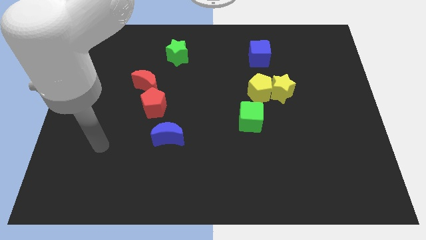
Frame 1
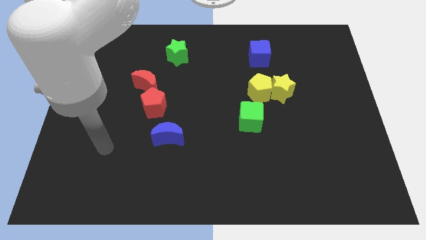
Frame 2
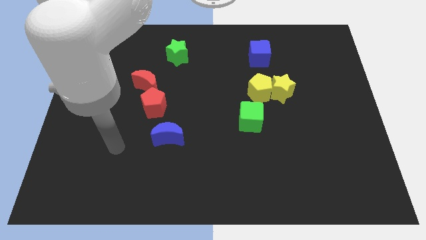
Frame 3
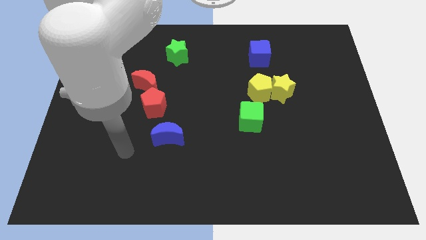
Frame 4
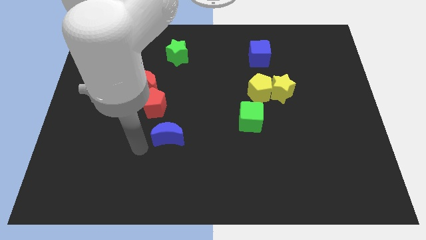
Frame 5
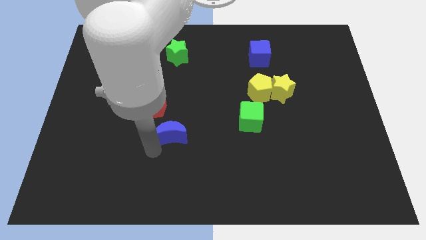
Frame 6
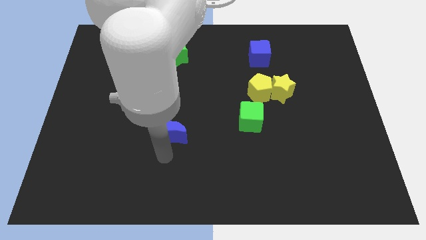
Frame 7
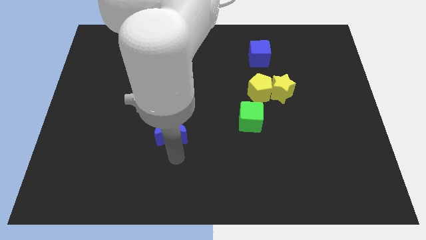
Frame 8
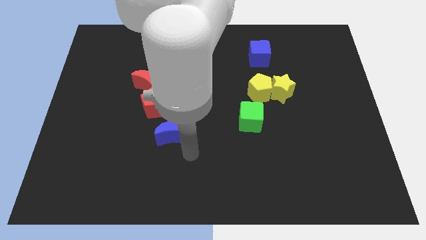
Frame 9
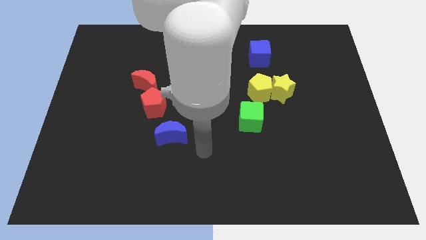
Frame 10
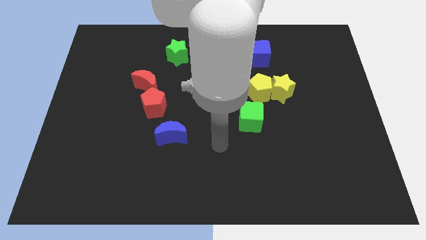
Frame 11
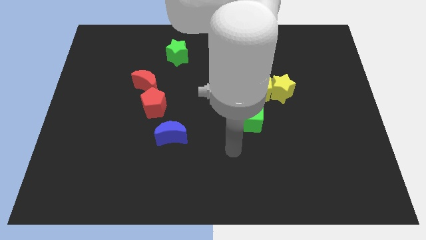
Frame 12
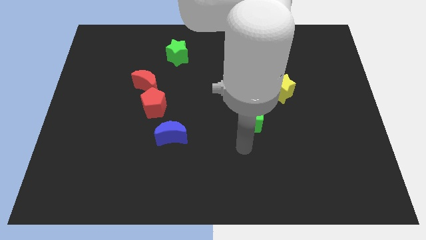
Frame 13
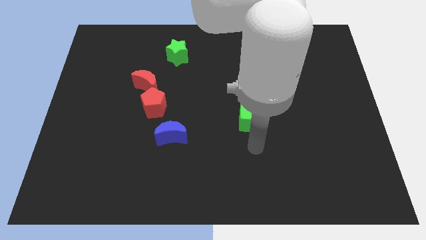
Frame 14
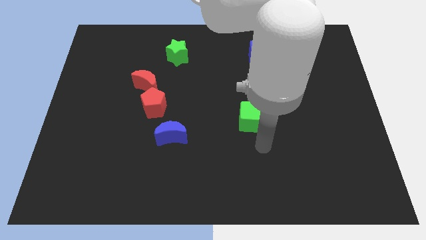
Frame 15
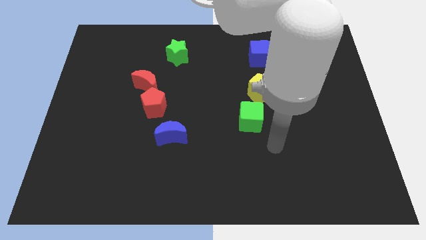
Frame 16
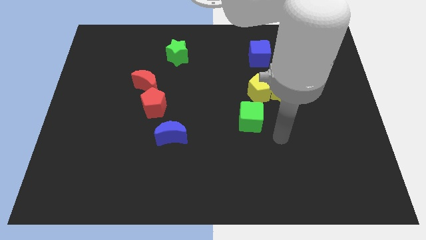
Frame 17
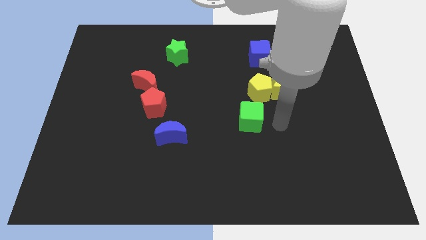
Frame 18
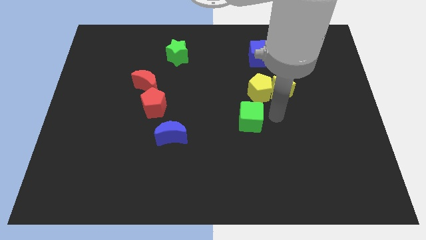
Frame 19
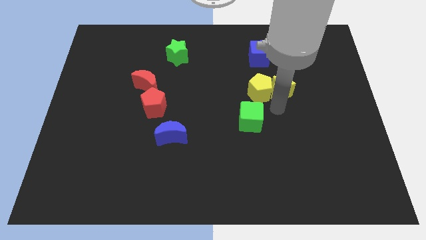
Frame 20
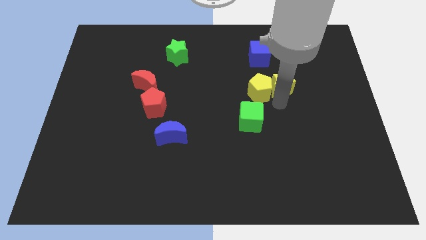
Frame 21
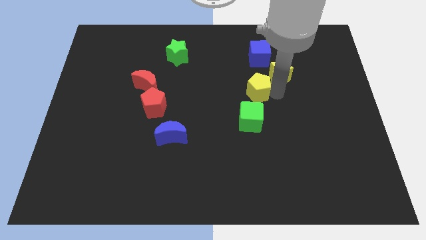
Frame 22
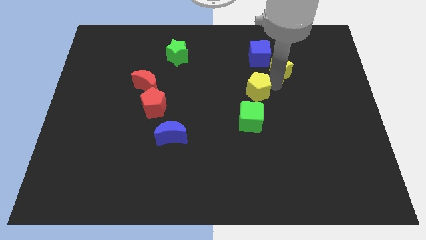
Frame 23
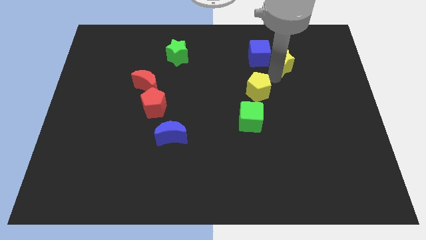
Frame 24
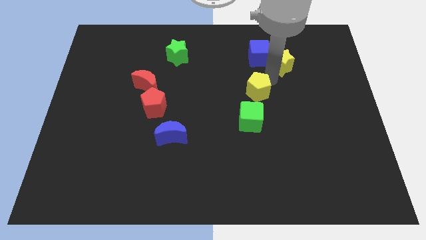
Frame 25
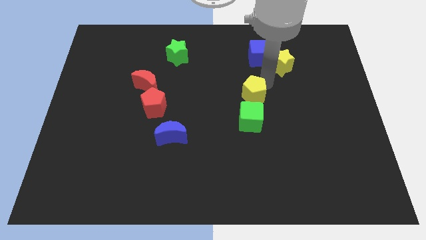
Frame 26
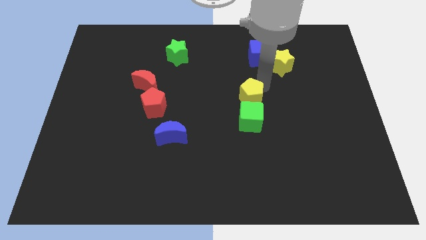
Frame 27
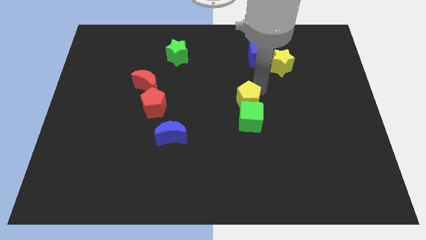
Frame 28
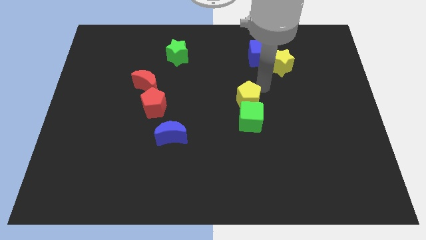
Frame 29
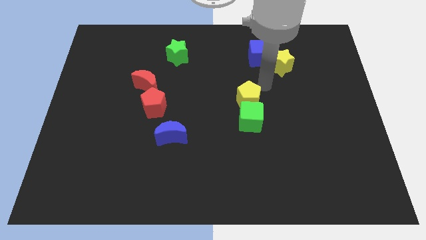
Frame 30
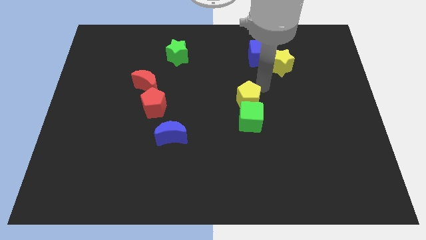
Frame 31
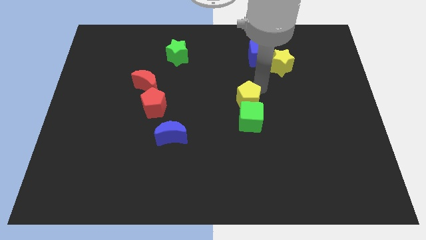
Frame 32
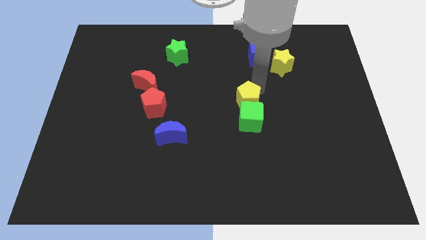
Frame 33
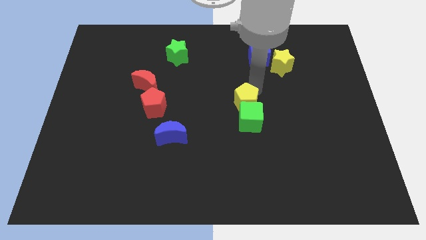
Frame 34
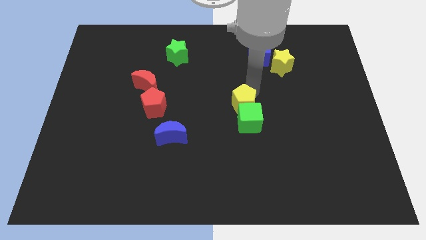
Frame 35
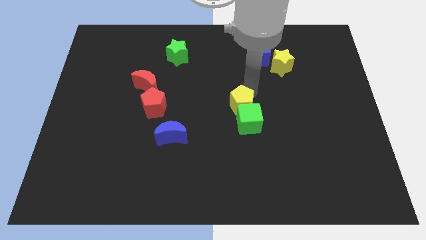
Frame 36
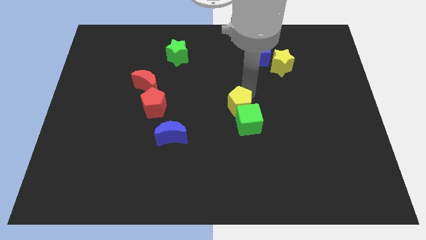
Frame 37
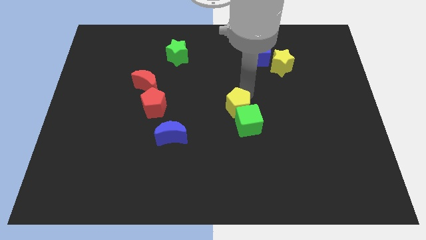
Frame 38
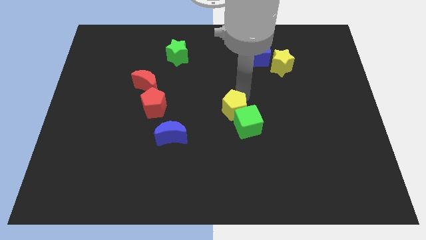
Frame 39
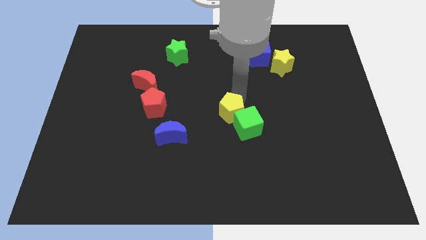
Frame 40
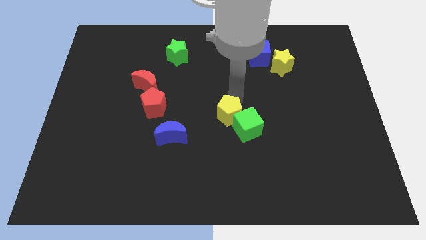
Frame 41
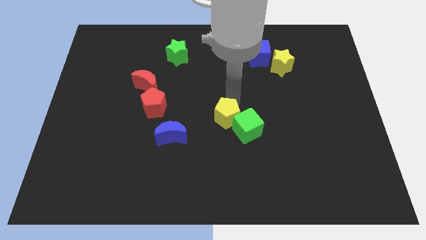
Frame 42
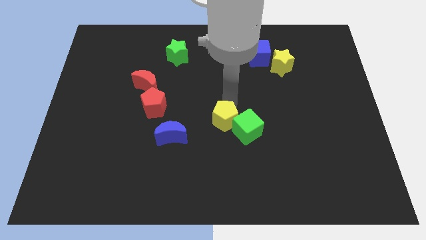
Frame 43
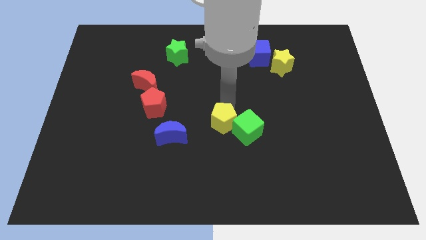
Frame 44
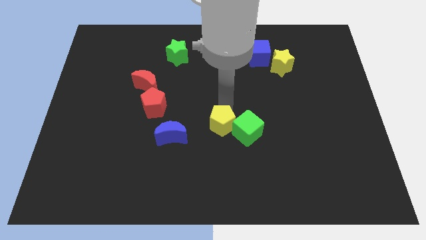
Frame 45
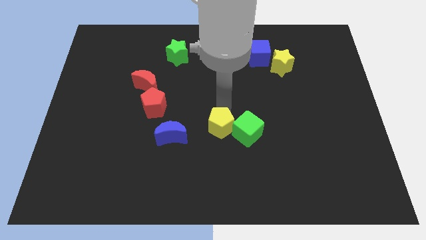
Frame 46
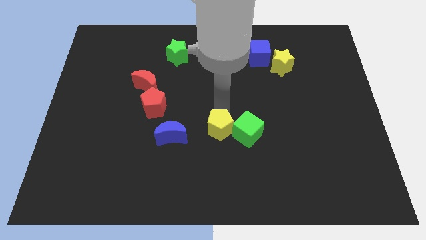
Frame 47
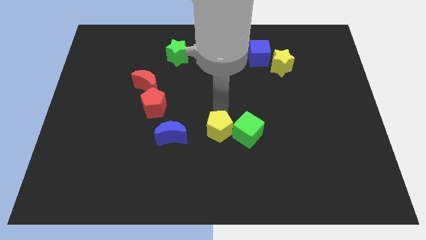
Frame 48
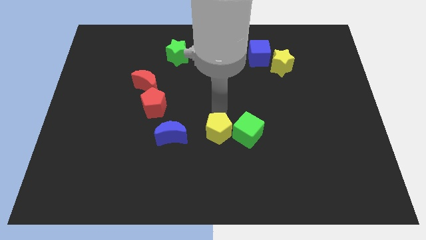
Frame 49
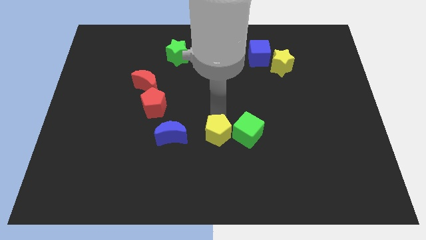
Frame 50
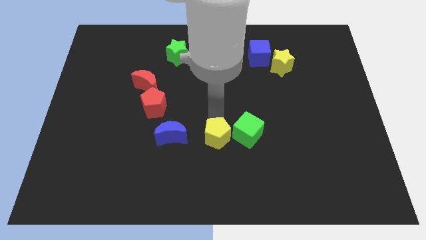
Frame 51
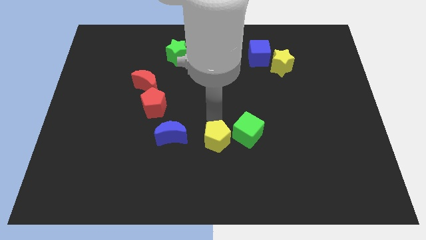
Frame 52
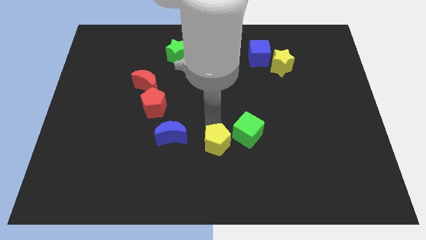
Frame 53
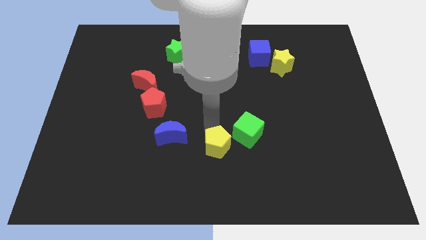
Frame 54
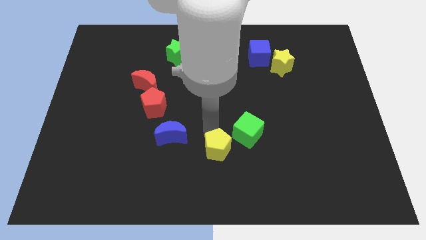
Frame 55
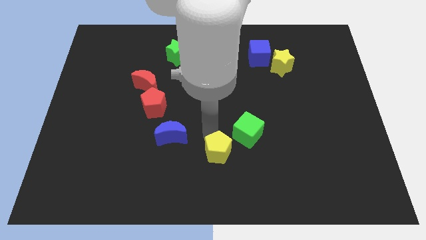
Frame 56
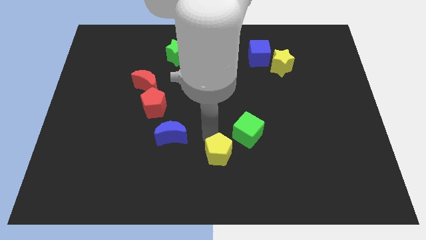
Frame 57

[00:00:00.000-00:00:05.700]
move the yellow pentagon to the bottom

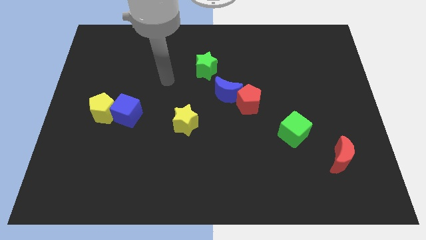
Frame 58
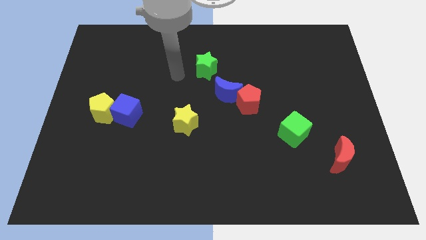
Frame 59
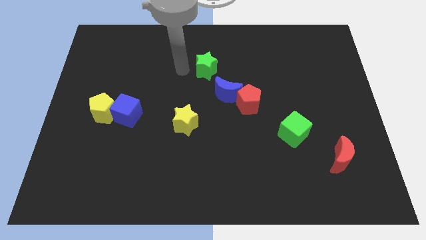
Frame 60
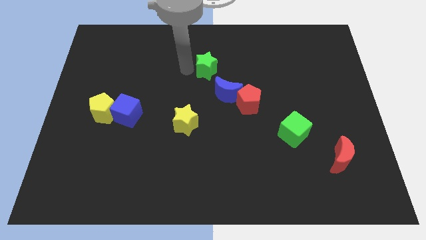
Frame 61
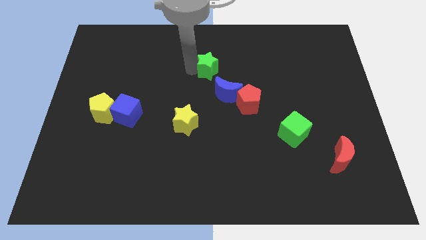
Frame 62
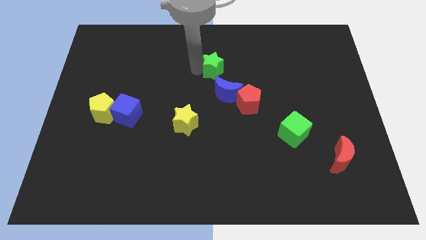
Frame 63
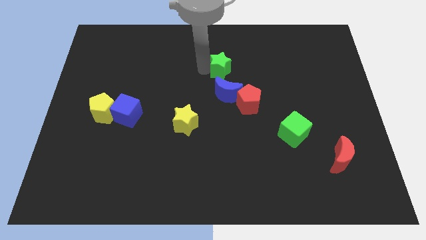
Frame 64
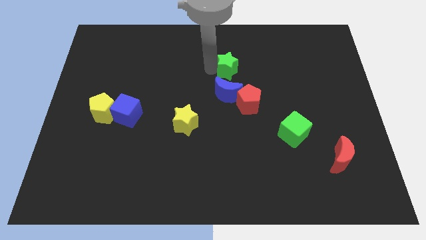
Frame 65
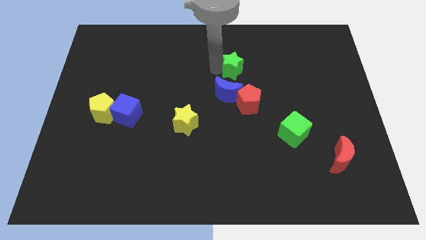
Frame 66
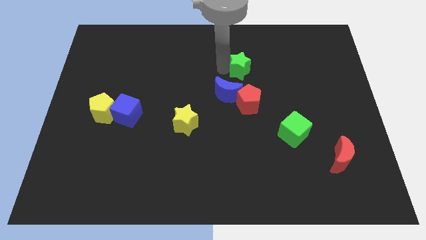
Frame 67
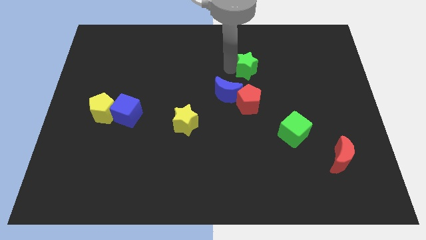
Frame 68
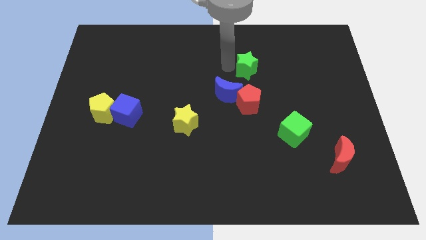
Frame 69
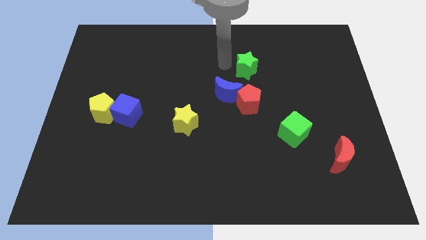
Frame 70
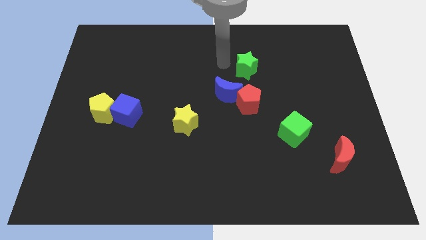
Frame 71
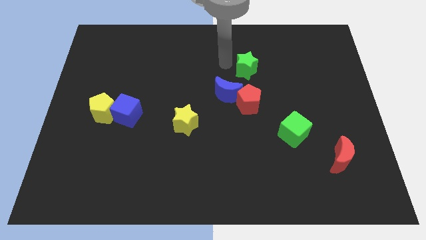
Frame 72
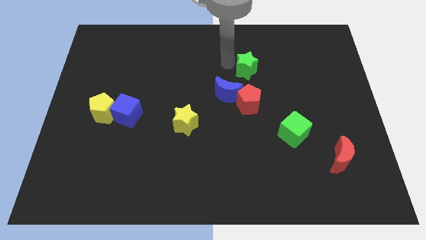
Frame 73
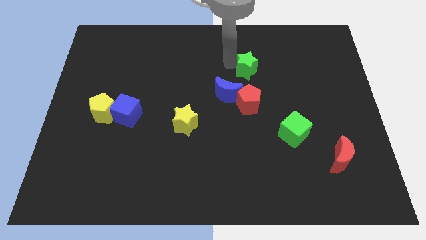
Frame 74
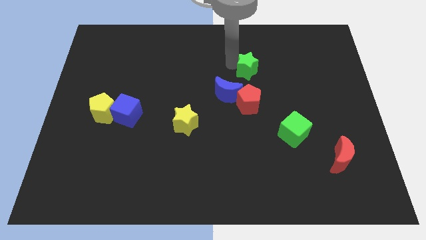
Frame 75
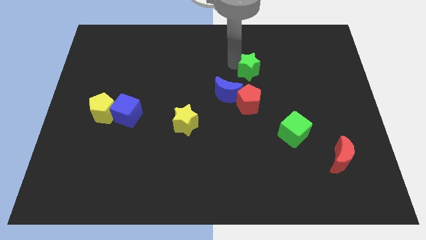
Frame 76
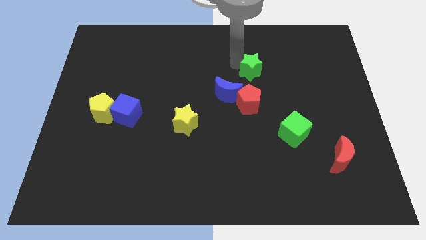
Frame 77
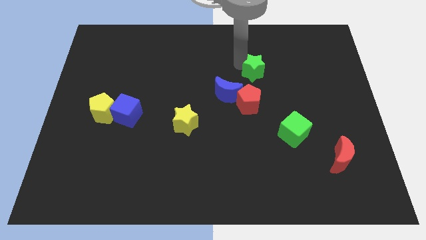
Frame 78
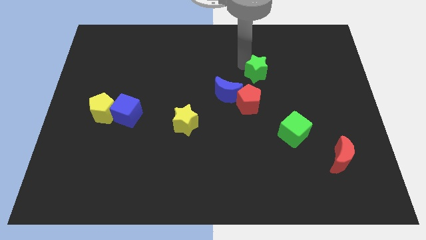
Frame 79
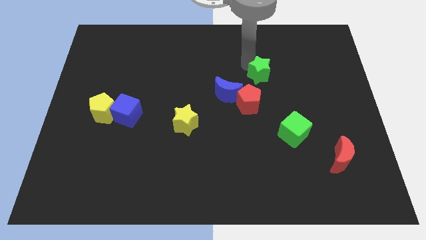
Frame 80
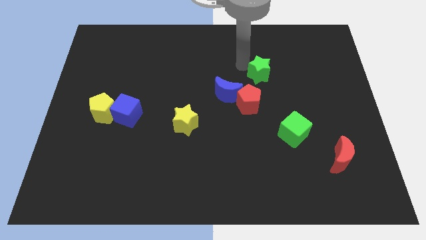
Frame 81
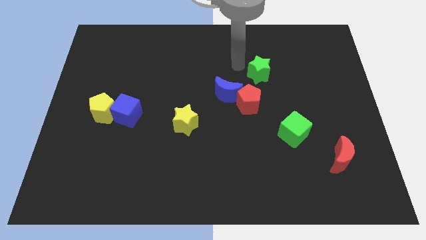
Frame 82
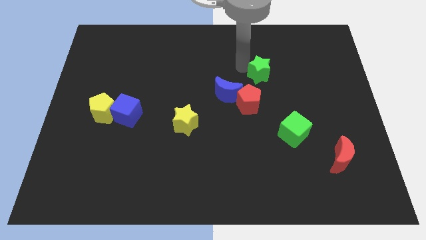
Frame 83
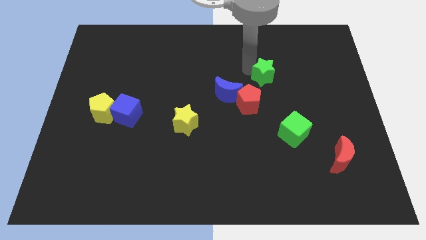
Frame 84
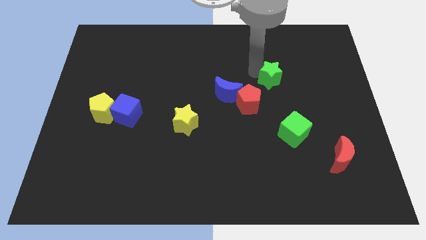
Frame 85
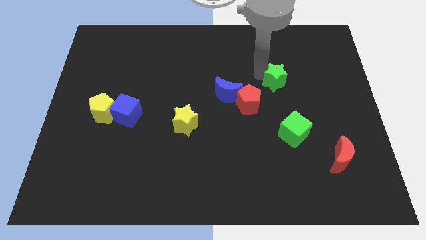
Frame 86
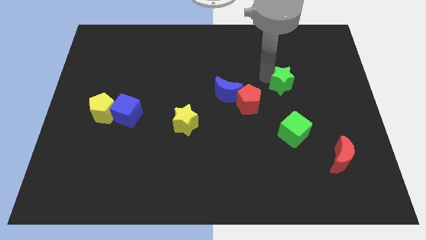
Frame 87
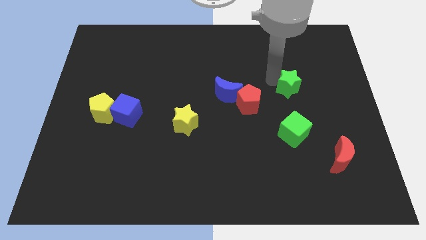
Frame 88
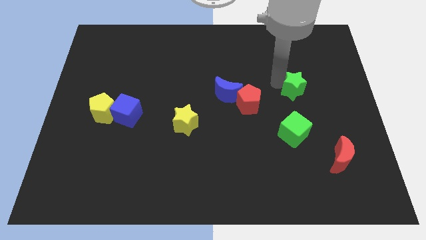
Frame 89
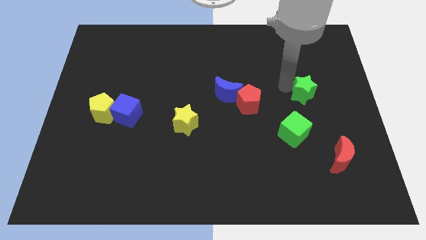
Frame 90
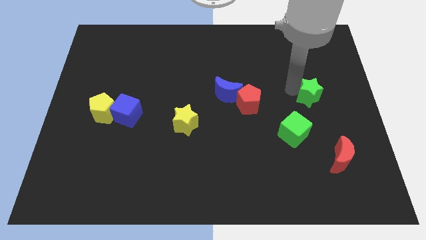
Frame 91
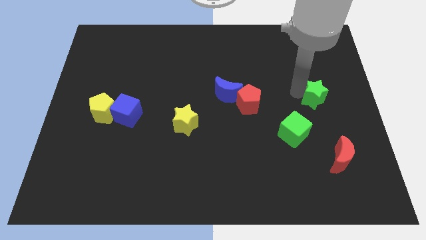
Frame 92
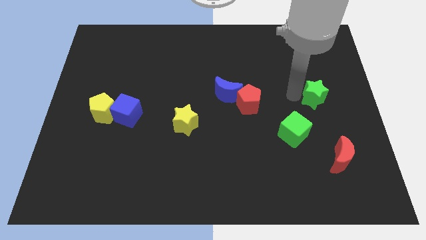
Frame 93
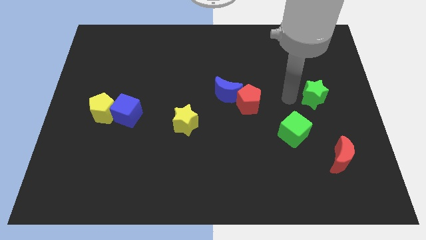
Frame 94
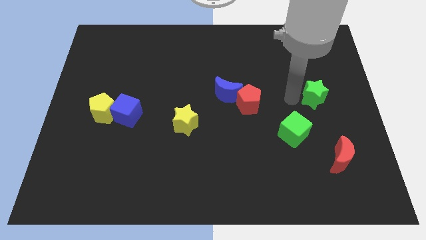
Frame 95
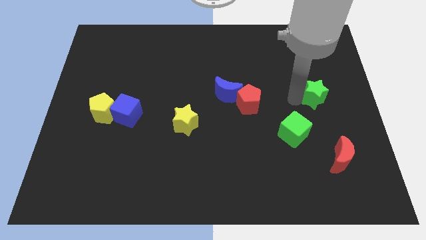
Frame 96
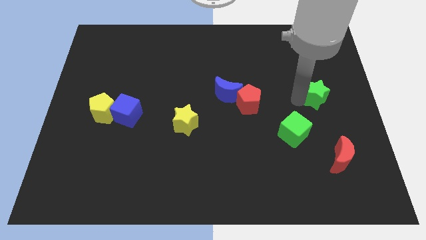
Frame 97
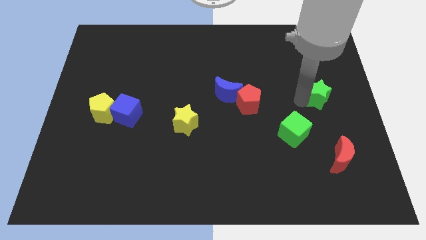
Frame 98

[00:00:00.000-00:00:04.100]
move the green star to the center right
